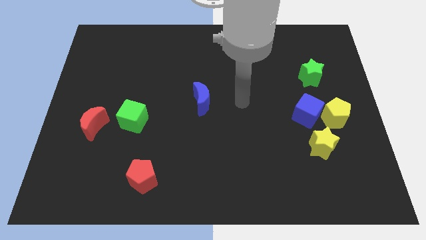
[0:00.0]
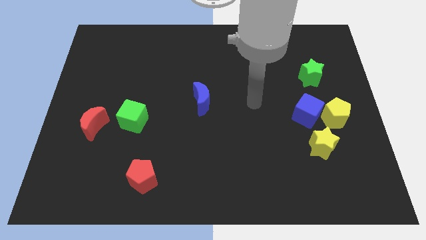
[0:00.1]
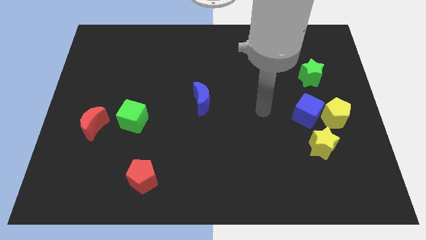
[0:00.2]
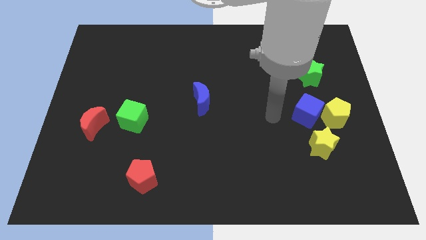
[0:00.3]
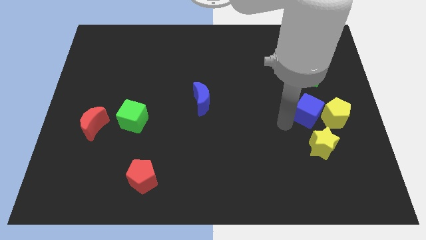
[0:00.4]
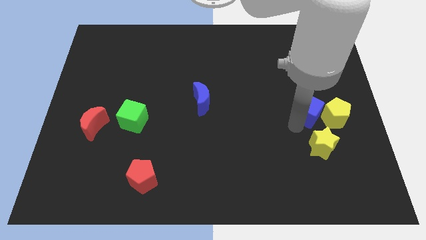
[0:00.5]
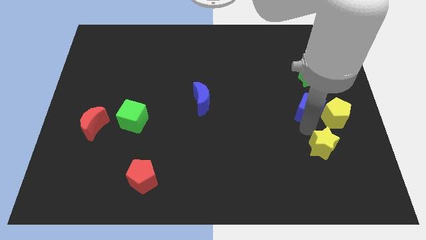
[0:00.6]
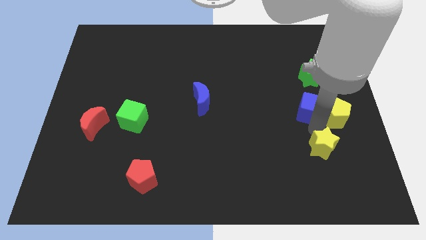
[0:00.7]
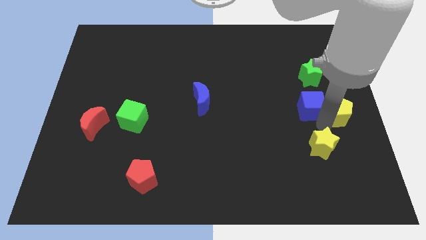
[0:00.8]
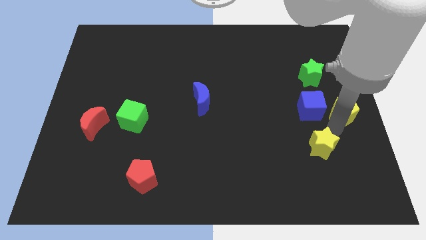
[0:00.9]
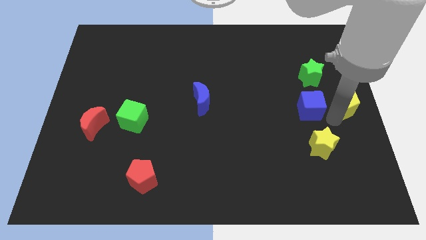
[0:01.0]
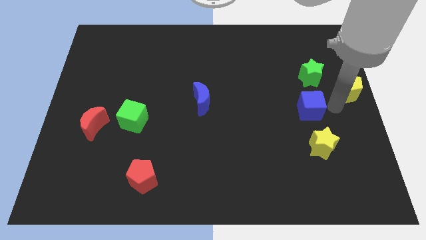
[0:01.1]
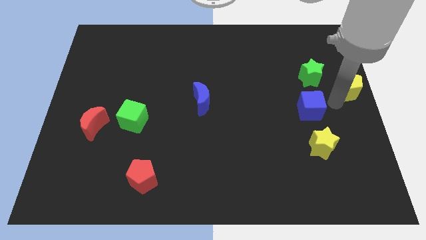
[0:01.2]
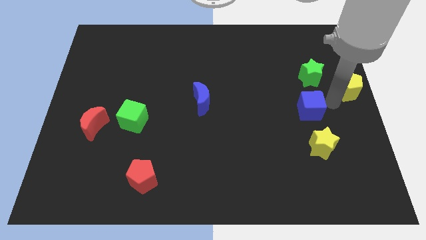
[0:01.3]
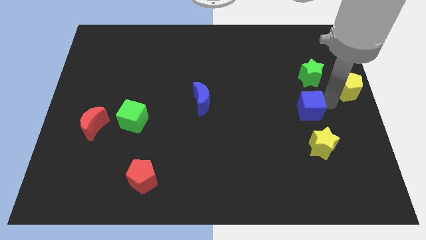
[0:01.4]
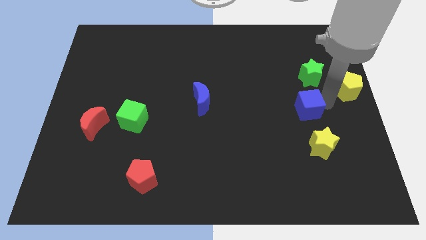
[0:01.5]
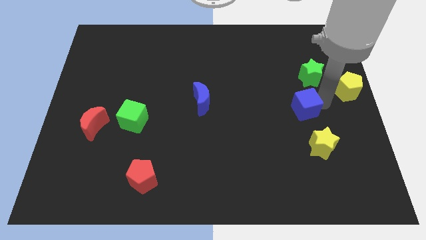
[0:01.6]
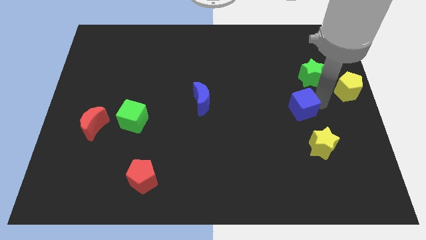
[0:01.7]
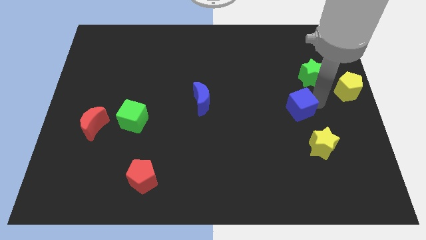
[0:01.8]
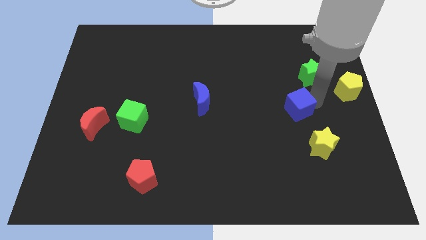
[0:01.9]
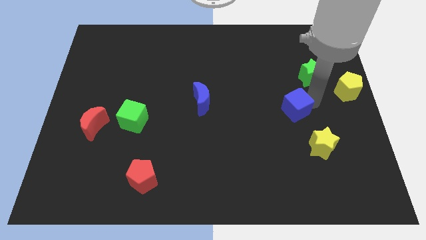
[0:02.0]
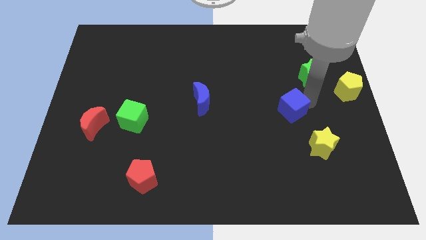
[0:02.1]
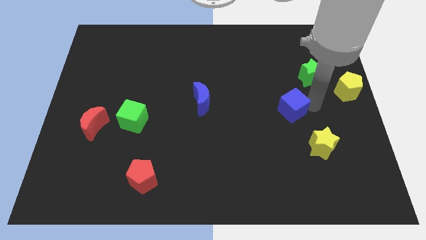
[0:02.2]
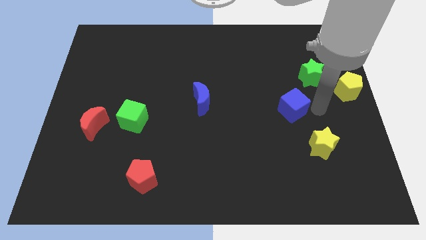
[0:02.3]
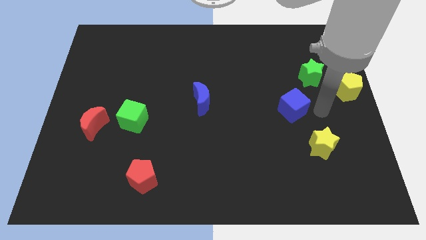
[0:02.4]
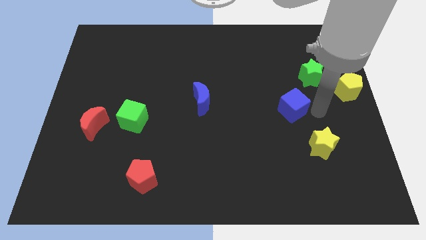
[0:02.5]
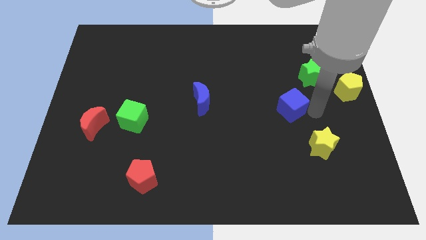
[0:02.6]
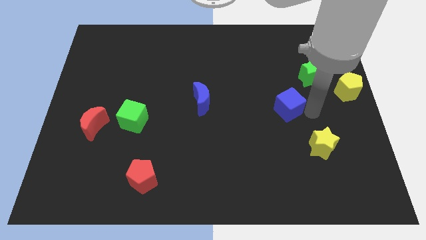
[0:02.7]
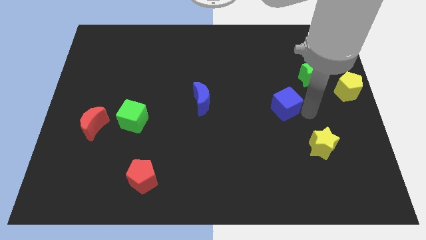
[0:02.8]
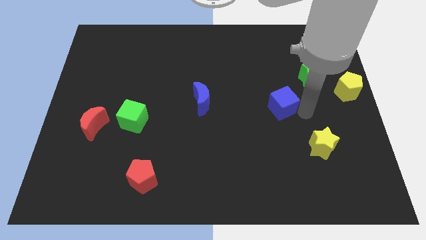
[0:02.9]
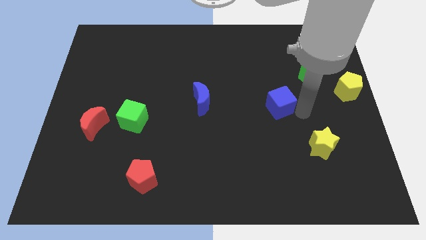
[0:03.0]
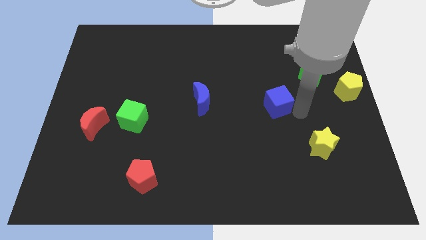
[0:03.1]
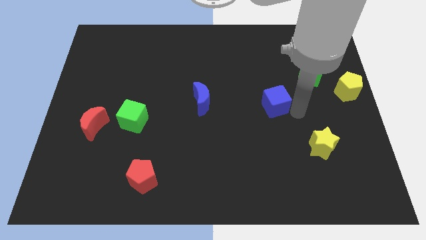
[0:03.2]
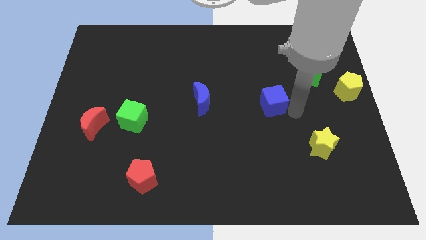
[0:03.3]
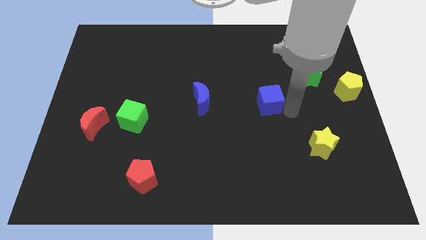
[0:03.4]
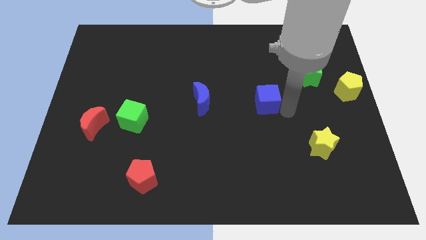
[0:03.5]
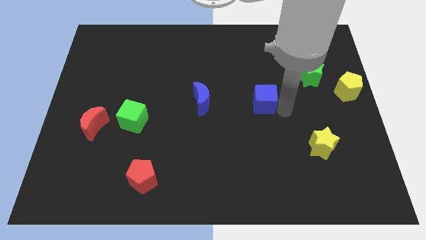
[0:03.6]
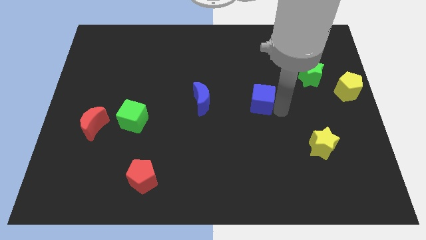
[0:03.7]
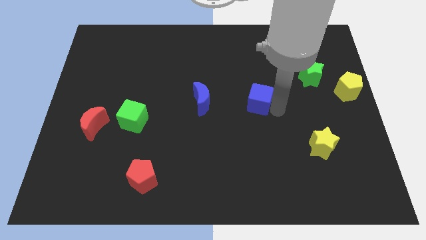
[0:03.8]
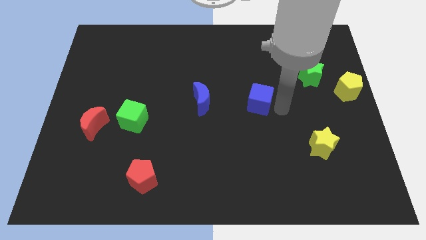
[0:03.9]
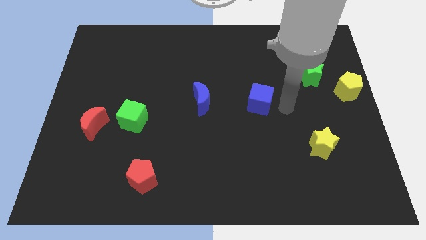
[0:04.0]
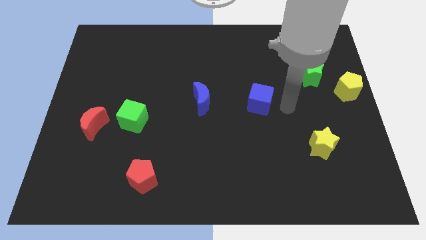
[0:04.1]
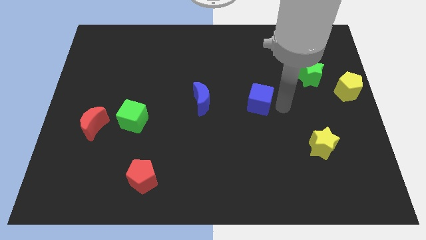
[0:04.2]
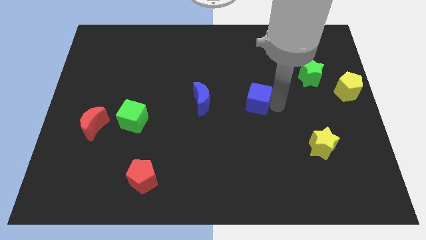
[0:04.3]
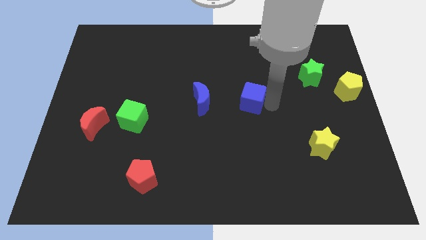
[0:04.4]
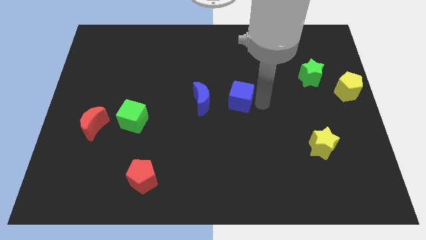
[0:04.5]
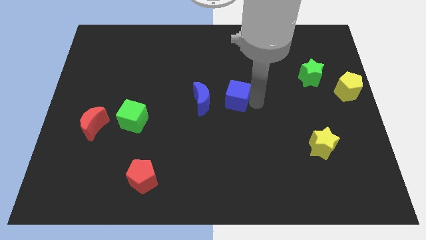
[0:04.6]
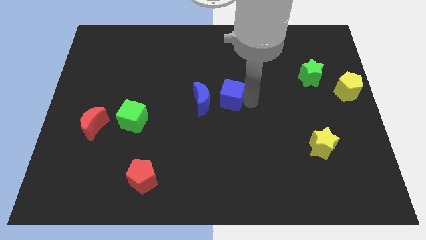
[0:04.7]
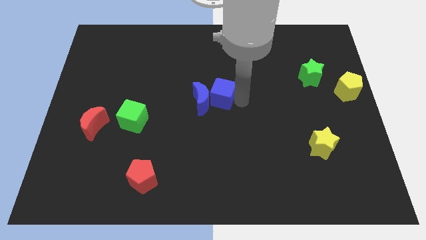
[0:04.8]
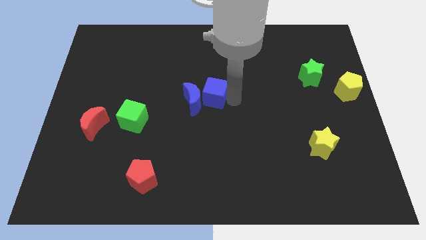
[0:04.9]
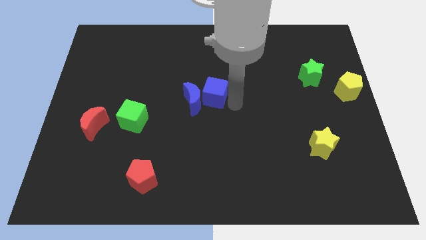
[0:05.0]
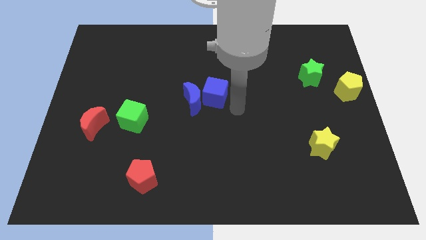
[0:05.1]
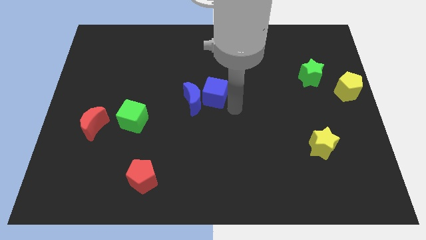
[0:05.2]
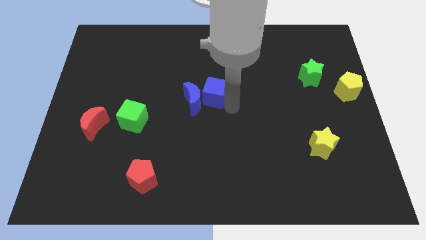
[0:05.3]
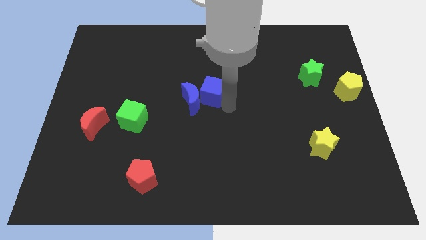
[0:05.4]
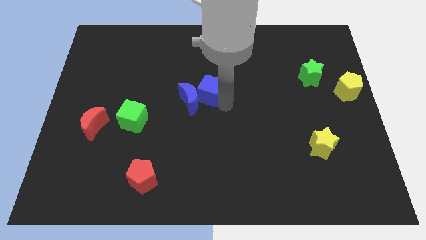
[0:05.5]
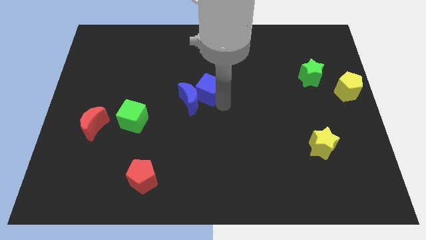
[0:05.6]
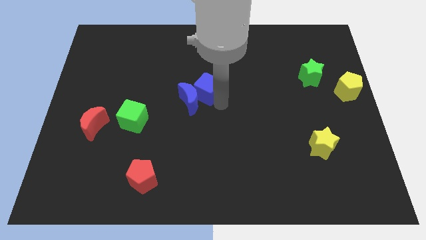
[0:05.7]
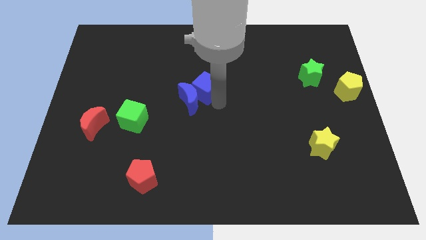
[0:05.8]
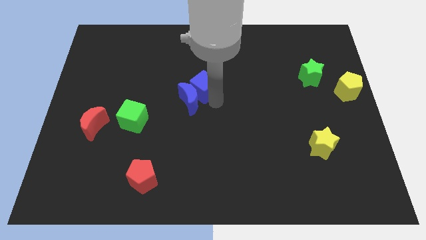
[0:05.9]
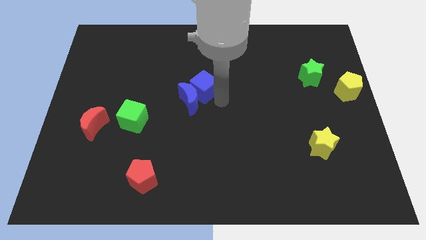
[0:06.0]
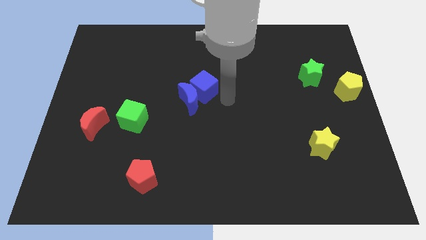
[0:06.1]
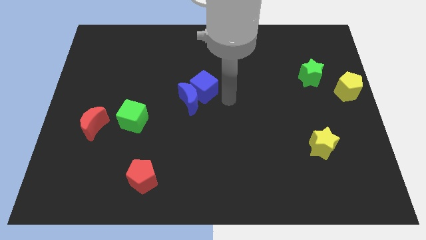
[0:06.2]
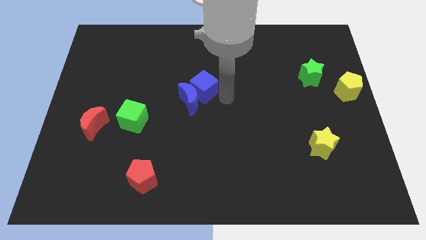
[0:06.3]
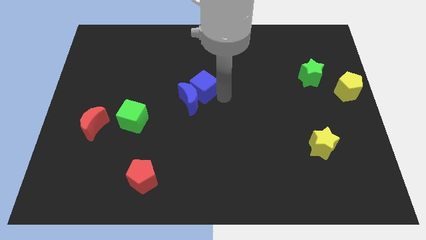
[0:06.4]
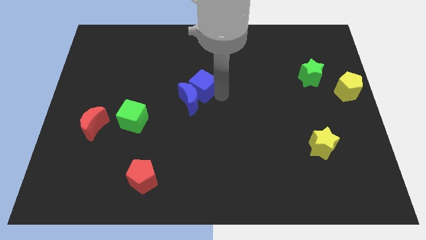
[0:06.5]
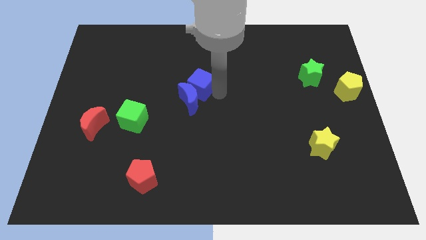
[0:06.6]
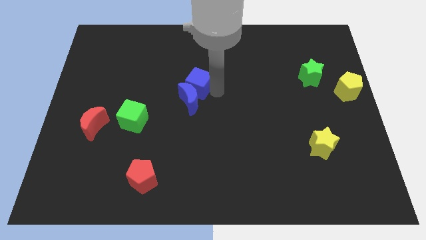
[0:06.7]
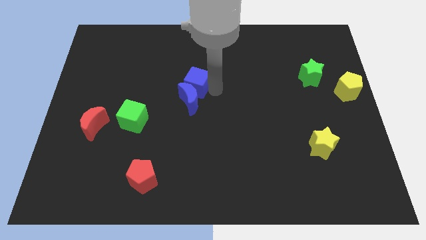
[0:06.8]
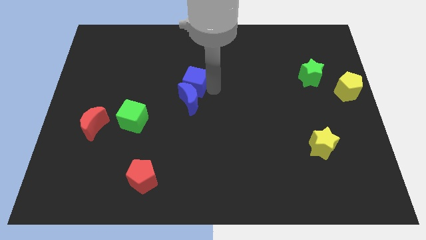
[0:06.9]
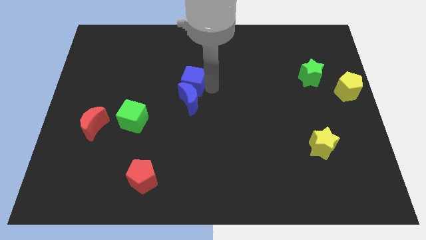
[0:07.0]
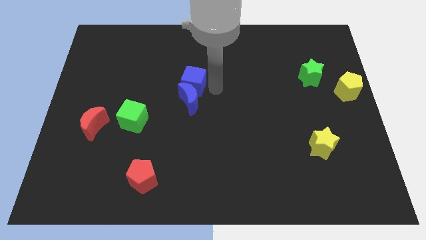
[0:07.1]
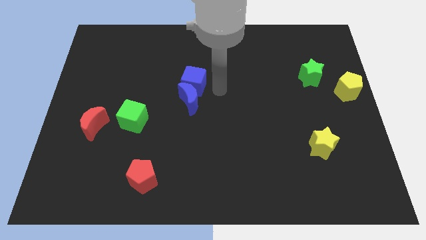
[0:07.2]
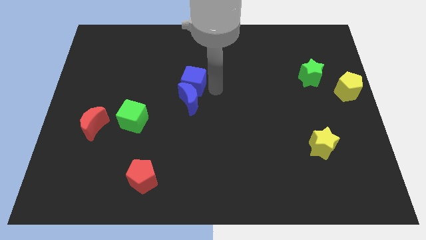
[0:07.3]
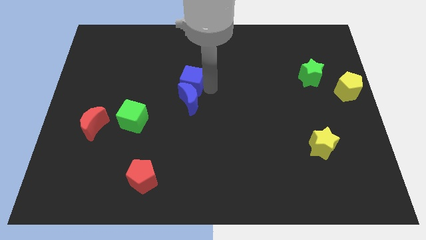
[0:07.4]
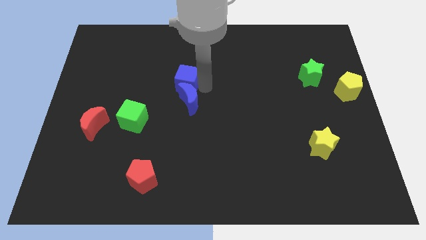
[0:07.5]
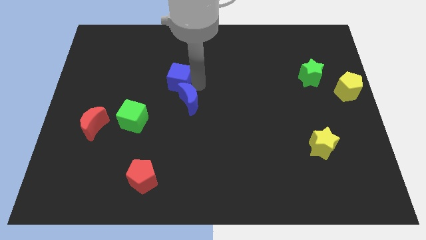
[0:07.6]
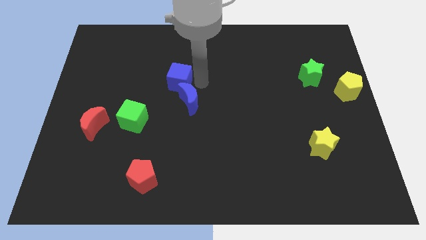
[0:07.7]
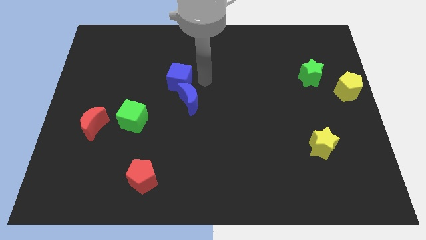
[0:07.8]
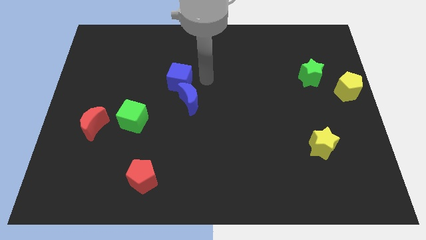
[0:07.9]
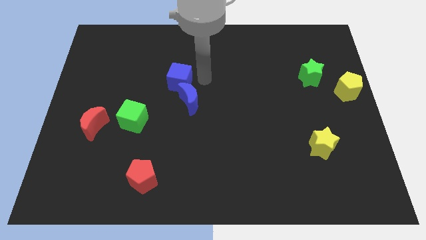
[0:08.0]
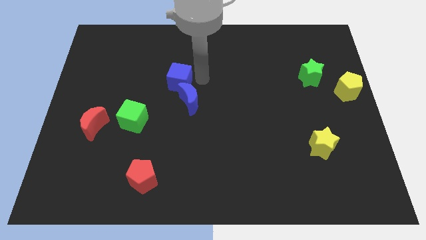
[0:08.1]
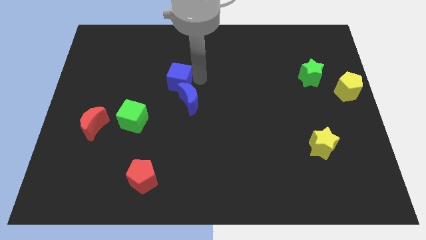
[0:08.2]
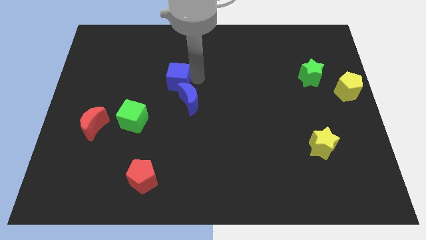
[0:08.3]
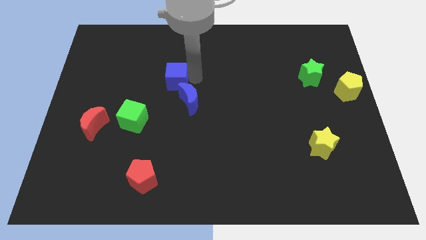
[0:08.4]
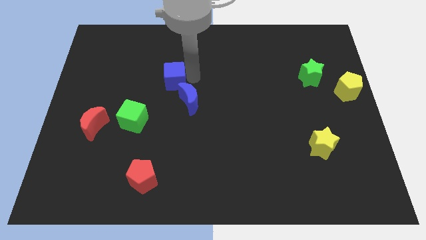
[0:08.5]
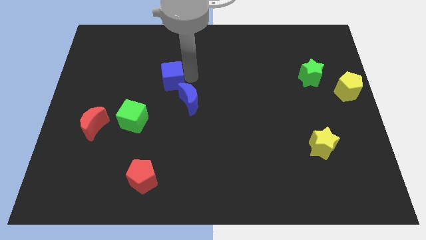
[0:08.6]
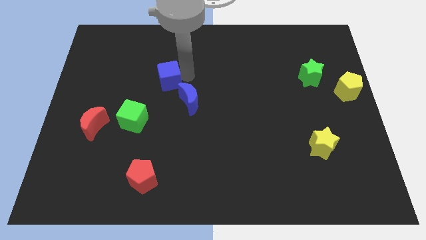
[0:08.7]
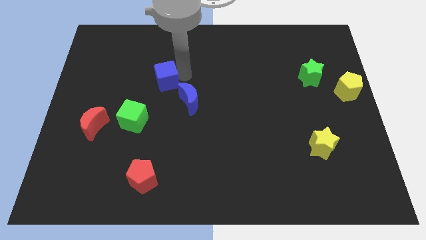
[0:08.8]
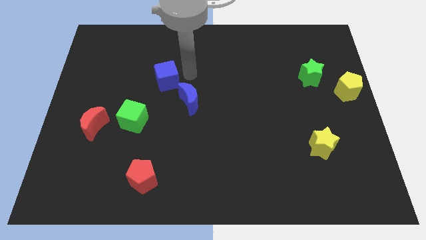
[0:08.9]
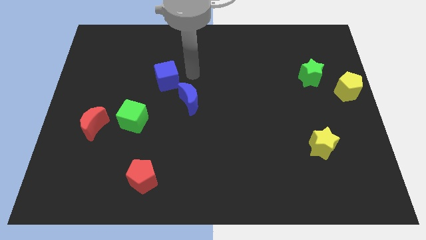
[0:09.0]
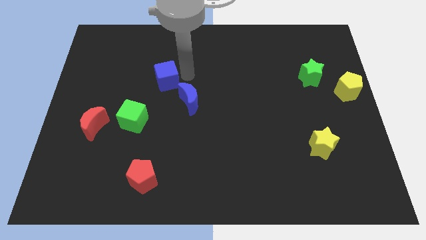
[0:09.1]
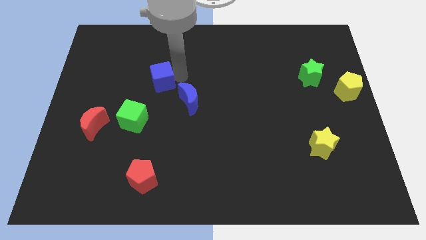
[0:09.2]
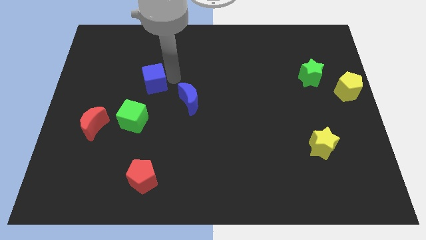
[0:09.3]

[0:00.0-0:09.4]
put the blue cube above the green cube
